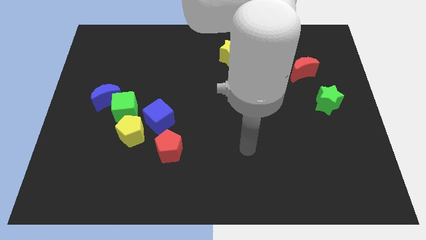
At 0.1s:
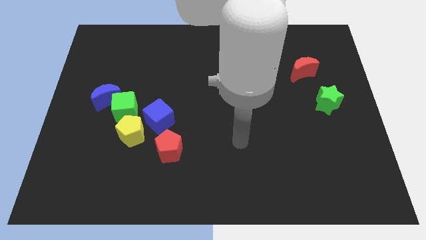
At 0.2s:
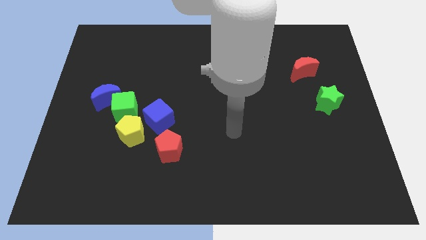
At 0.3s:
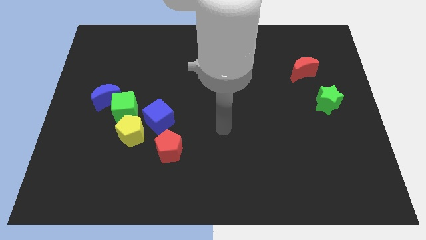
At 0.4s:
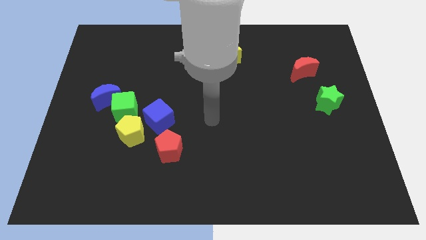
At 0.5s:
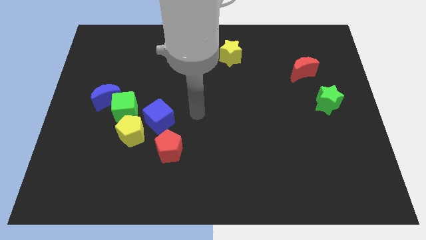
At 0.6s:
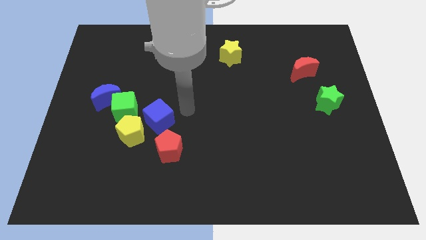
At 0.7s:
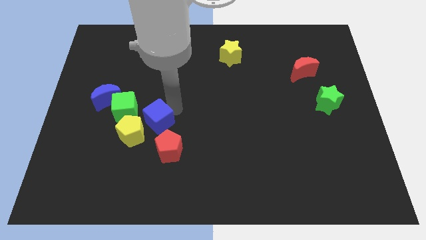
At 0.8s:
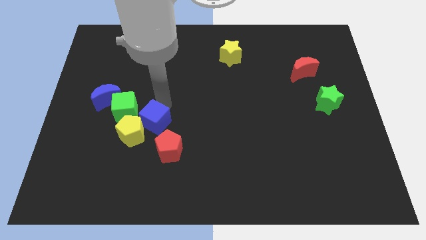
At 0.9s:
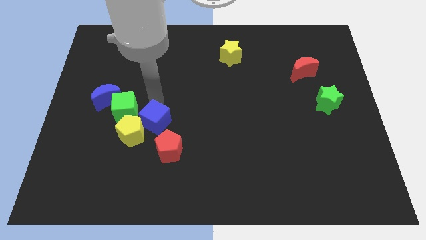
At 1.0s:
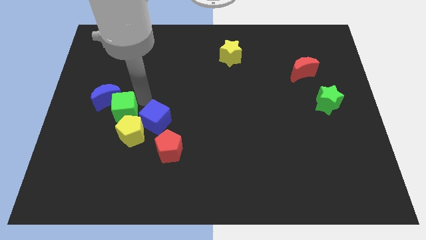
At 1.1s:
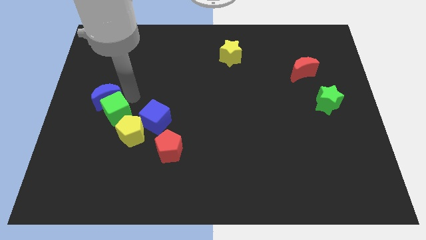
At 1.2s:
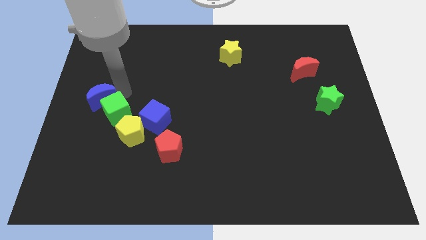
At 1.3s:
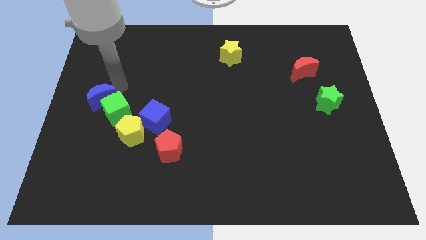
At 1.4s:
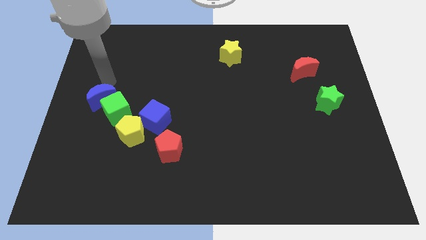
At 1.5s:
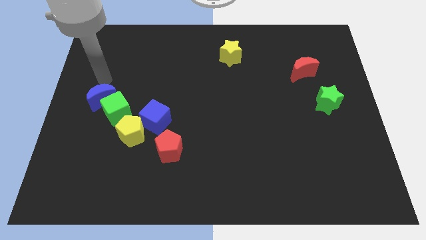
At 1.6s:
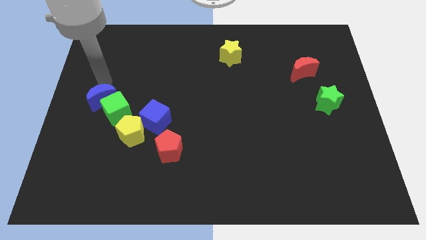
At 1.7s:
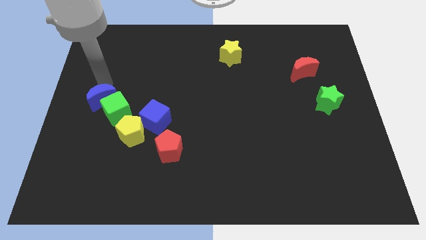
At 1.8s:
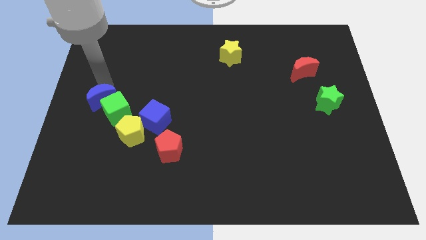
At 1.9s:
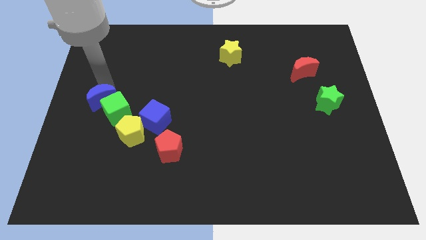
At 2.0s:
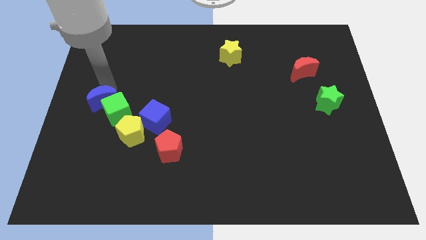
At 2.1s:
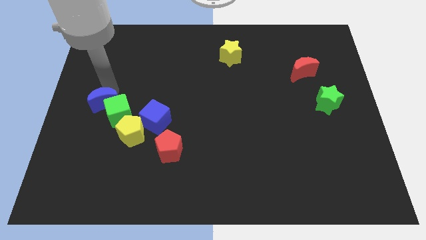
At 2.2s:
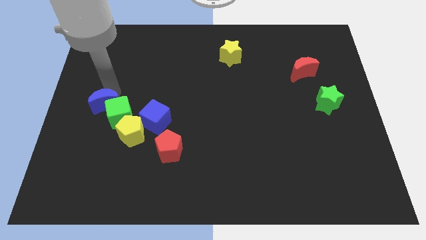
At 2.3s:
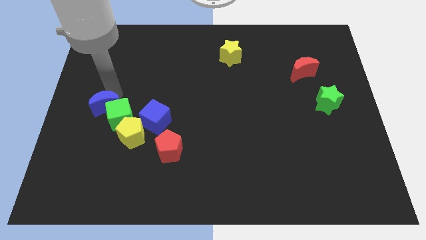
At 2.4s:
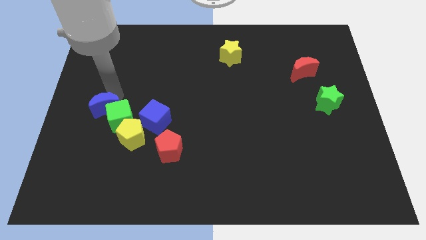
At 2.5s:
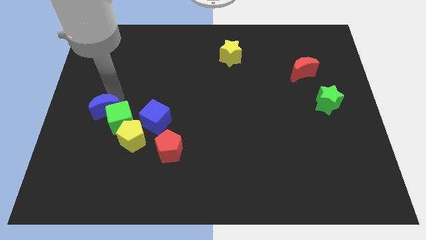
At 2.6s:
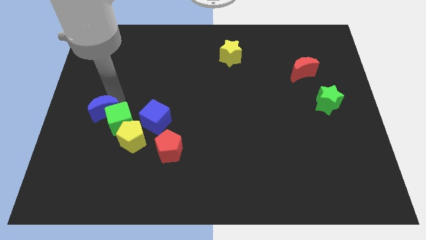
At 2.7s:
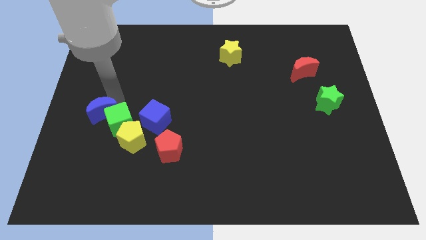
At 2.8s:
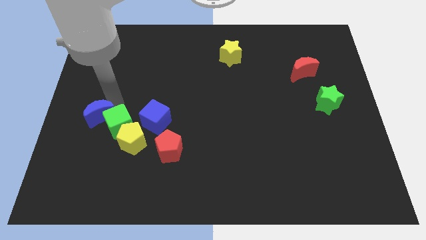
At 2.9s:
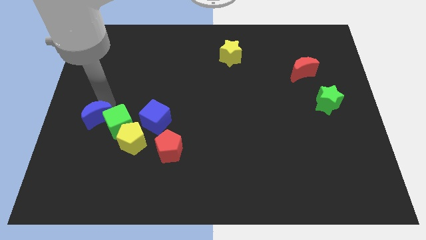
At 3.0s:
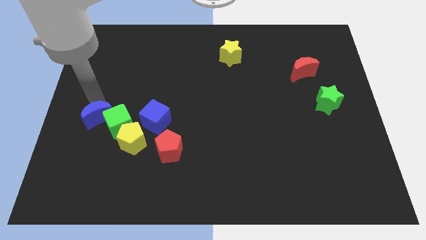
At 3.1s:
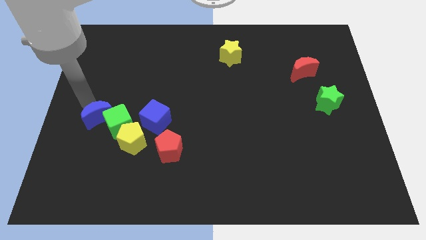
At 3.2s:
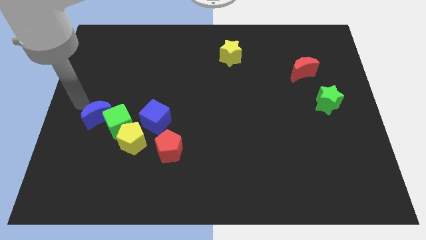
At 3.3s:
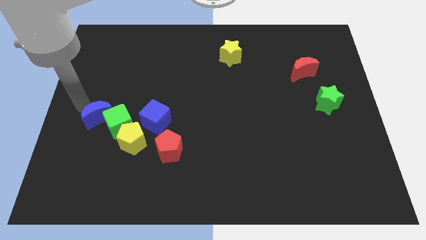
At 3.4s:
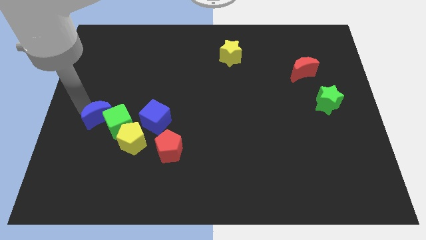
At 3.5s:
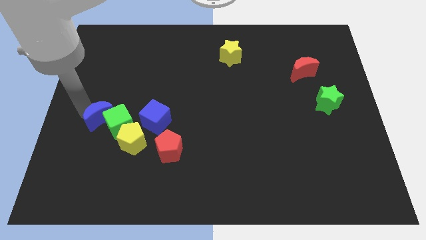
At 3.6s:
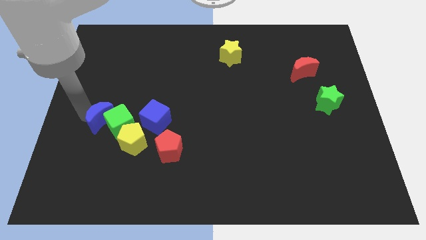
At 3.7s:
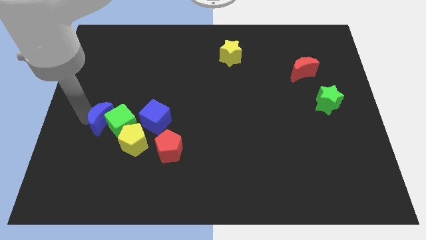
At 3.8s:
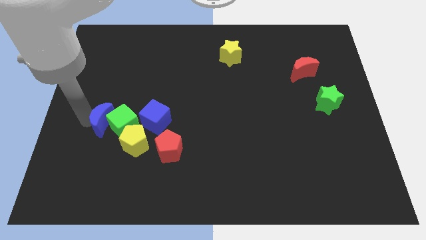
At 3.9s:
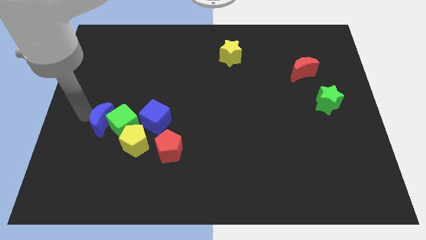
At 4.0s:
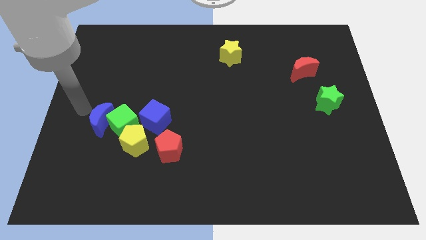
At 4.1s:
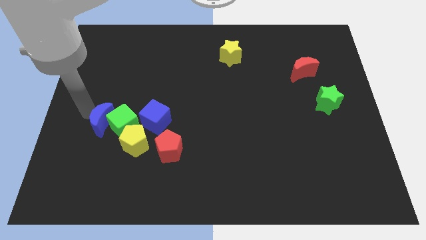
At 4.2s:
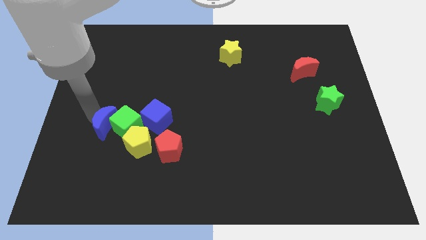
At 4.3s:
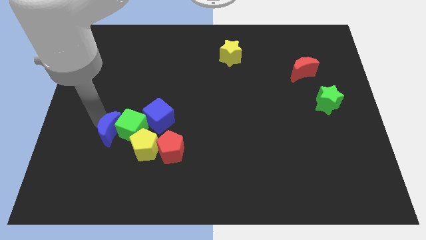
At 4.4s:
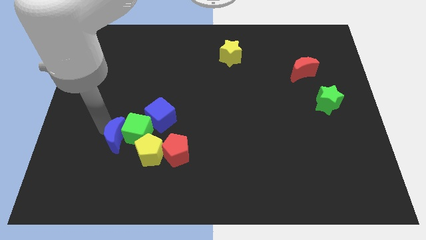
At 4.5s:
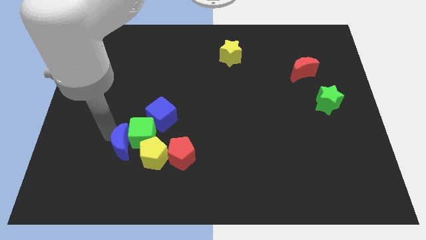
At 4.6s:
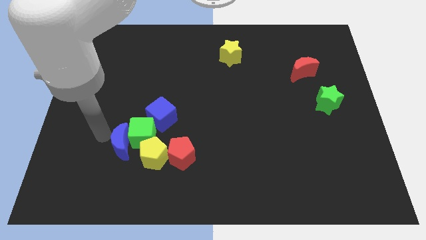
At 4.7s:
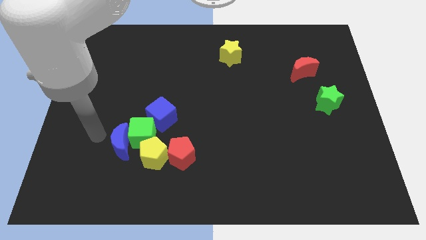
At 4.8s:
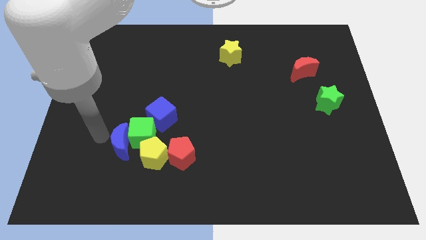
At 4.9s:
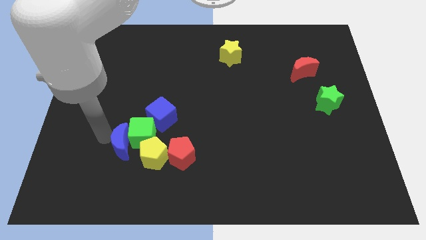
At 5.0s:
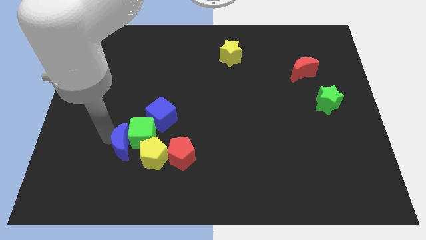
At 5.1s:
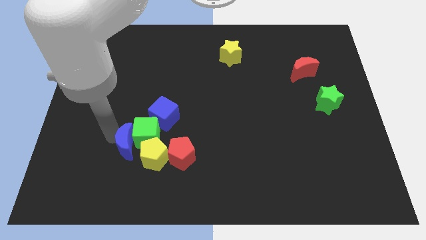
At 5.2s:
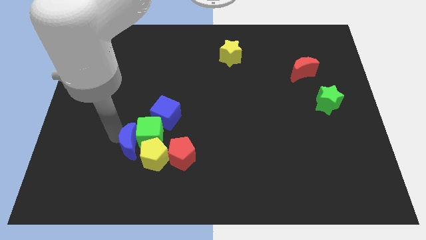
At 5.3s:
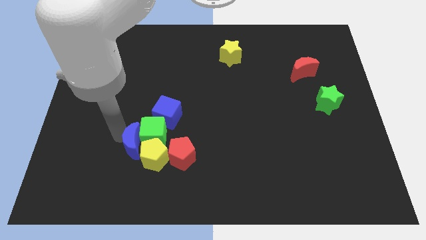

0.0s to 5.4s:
slide the blue moon close to the yellow pentagon

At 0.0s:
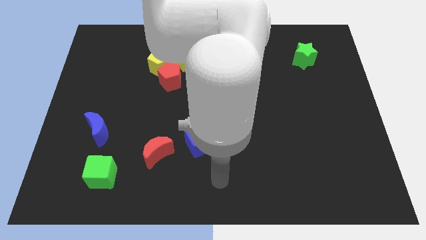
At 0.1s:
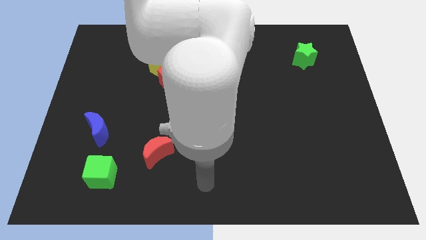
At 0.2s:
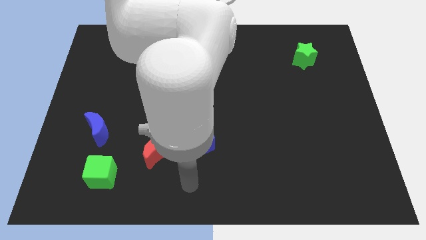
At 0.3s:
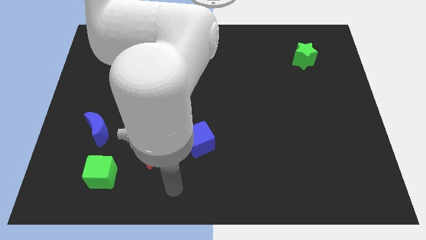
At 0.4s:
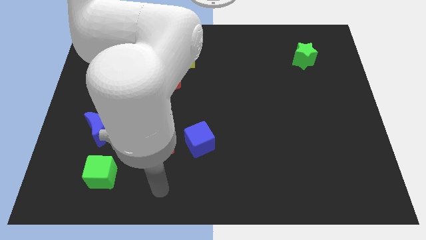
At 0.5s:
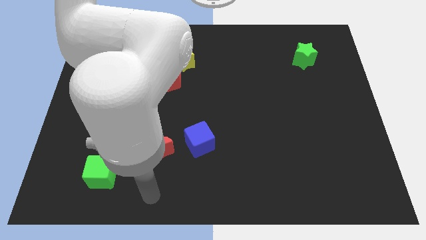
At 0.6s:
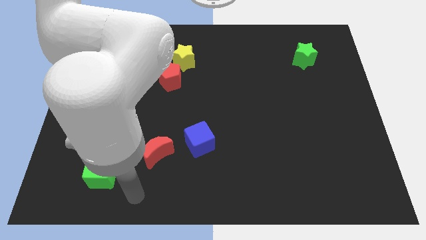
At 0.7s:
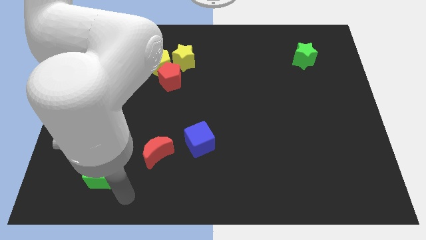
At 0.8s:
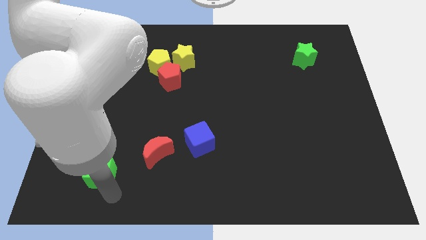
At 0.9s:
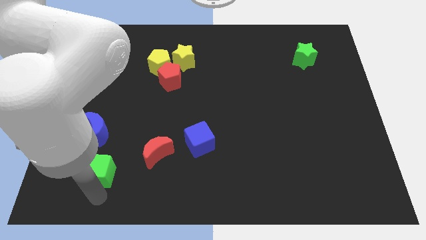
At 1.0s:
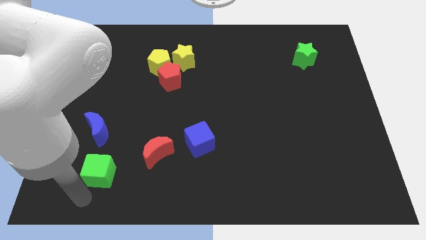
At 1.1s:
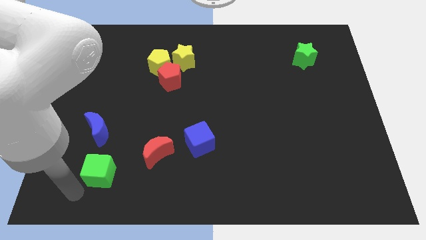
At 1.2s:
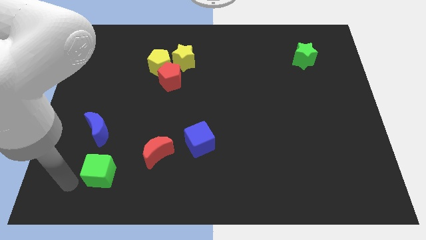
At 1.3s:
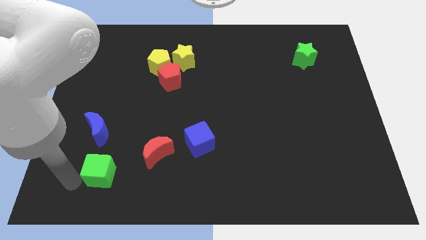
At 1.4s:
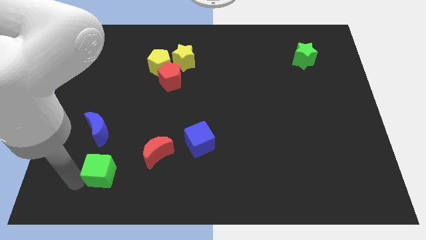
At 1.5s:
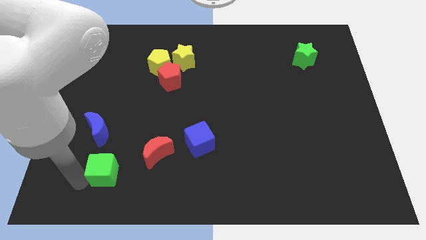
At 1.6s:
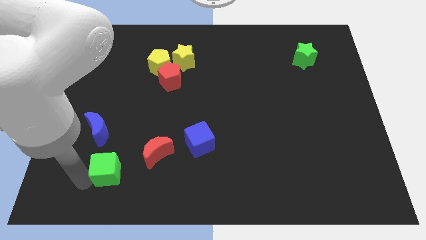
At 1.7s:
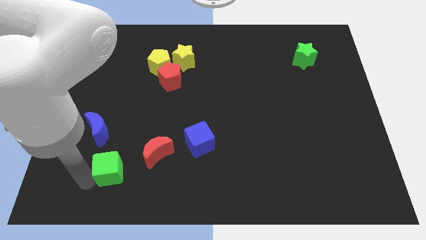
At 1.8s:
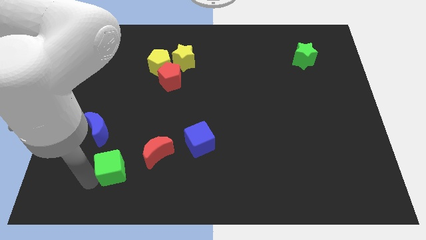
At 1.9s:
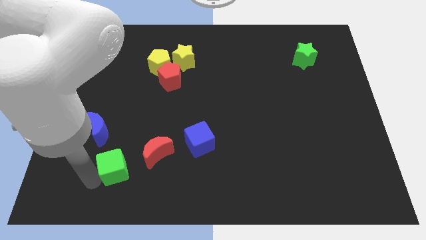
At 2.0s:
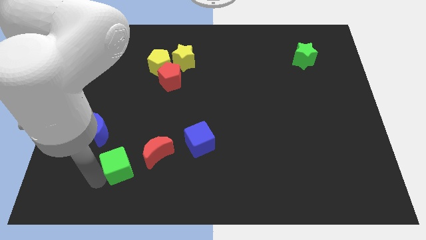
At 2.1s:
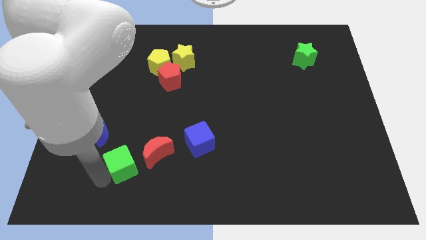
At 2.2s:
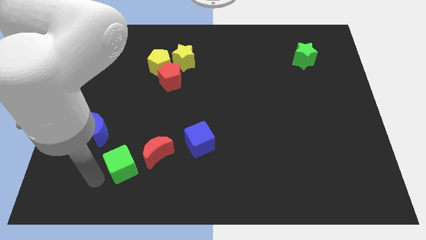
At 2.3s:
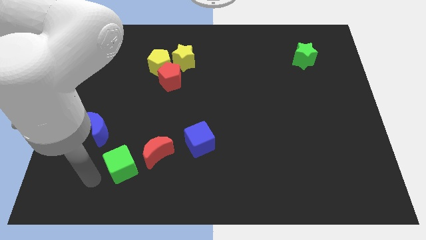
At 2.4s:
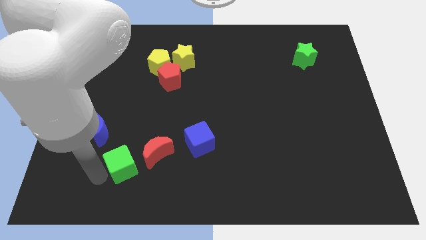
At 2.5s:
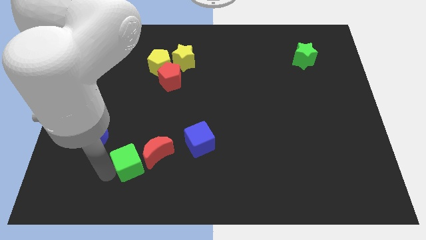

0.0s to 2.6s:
move the green cube to the red moon

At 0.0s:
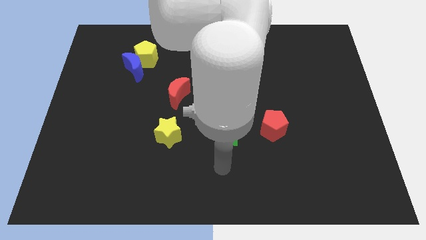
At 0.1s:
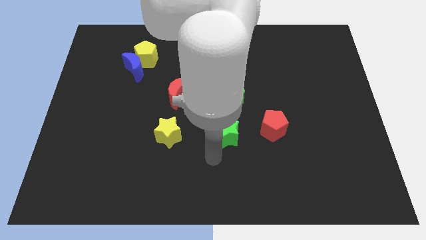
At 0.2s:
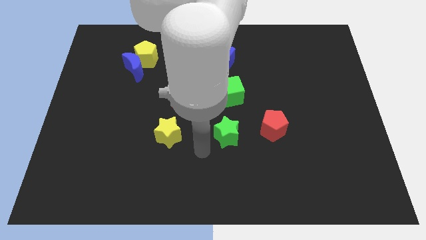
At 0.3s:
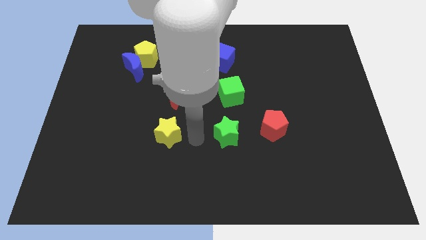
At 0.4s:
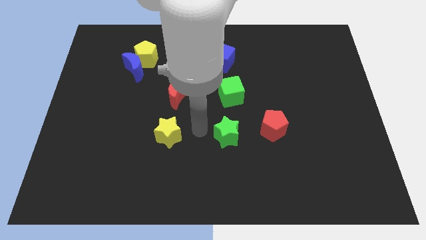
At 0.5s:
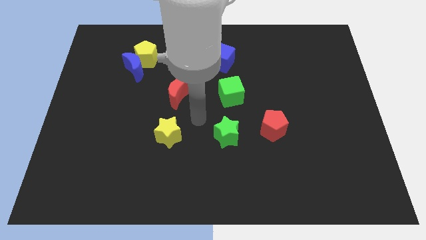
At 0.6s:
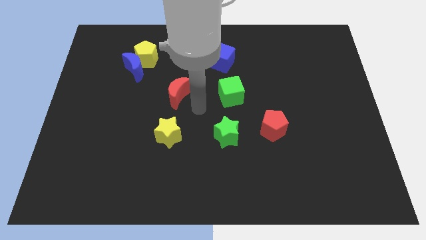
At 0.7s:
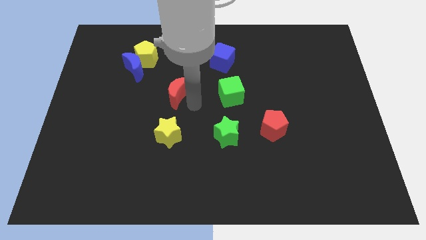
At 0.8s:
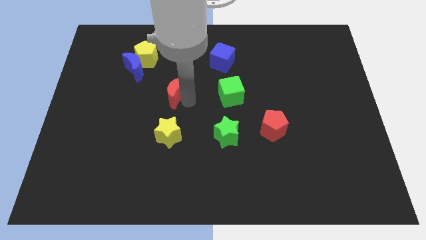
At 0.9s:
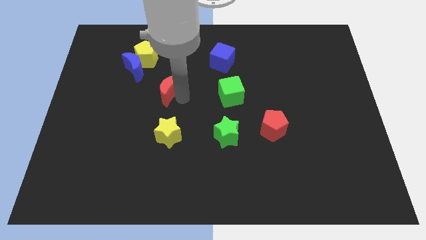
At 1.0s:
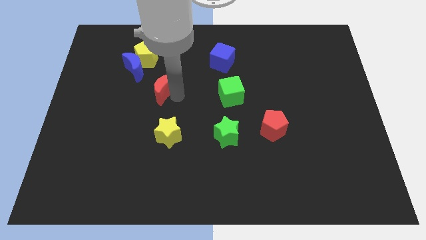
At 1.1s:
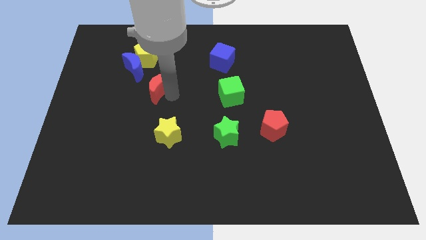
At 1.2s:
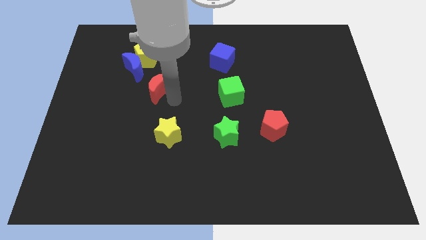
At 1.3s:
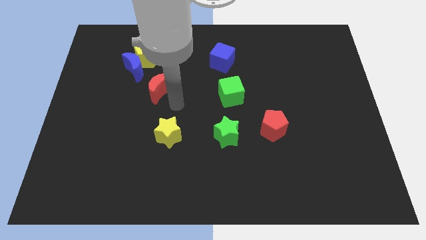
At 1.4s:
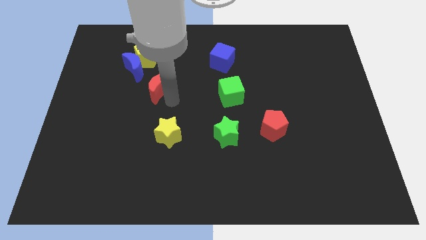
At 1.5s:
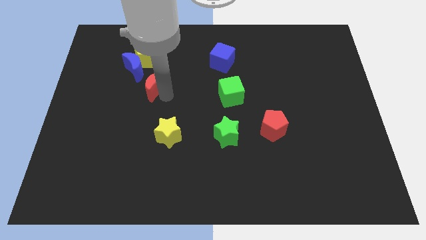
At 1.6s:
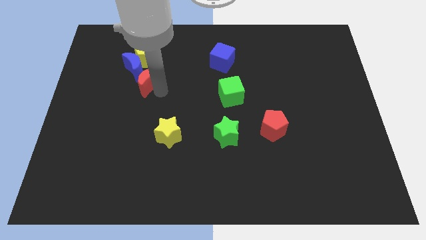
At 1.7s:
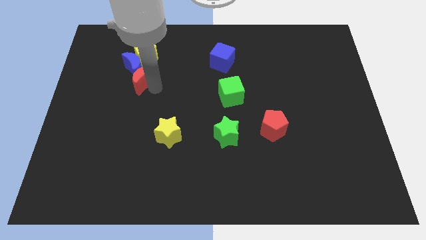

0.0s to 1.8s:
slide the red moon to the blue moon
